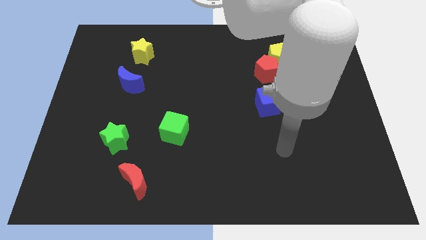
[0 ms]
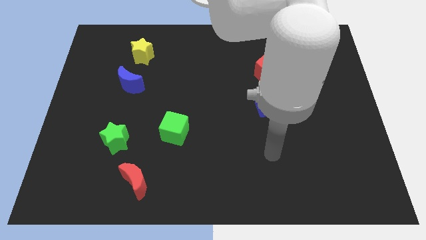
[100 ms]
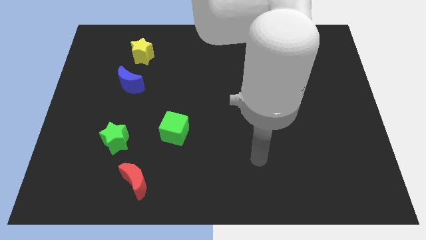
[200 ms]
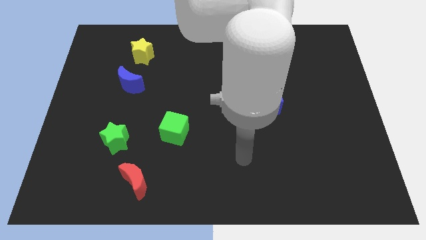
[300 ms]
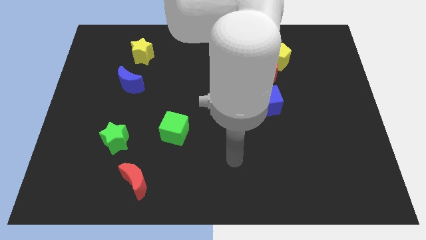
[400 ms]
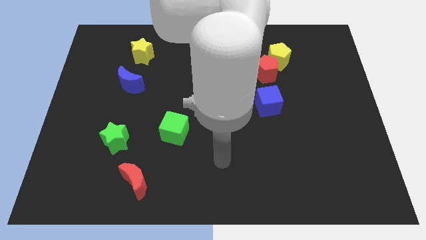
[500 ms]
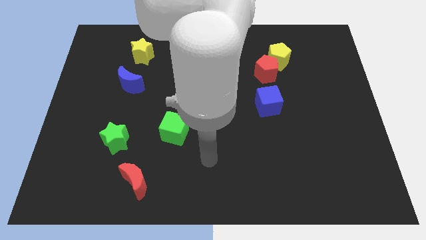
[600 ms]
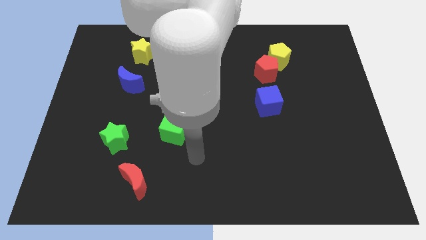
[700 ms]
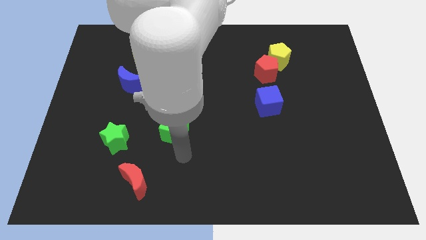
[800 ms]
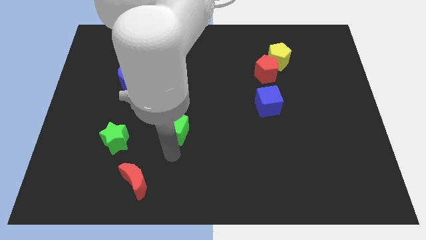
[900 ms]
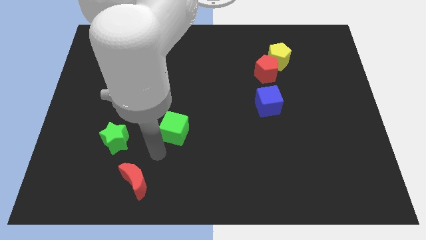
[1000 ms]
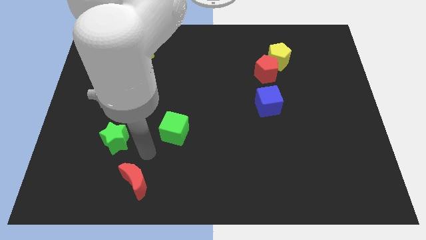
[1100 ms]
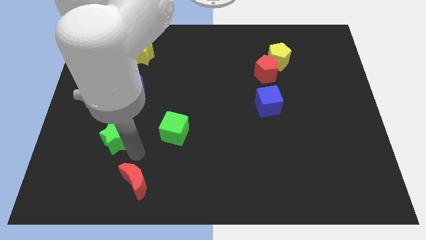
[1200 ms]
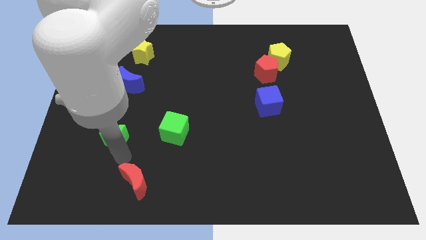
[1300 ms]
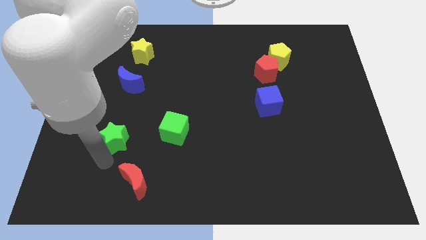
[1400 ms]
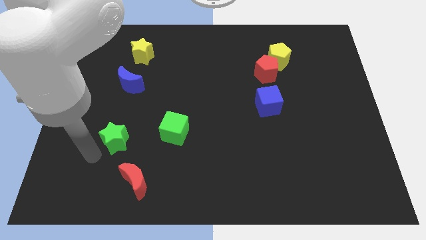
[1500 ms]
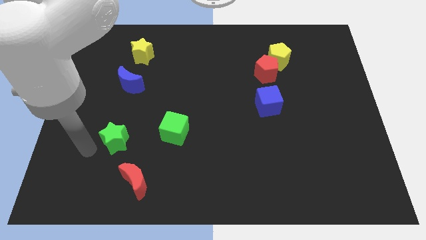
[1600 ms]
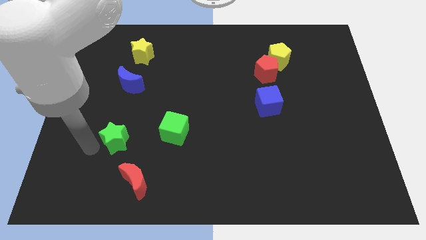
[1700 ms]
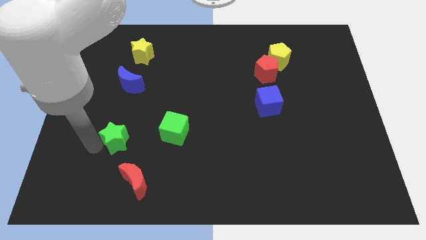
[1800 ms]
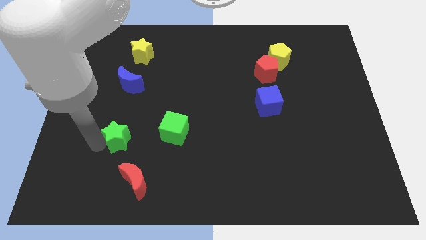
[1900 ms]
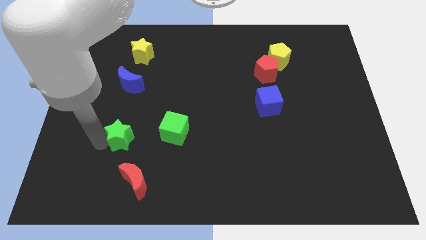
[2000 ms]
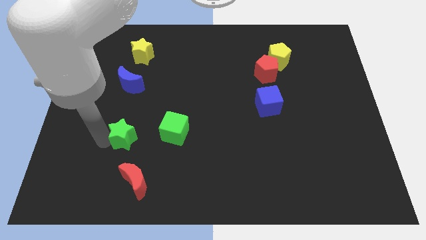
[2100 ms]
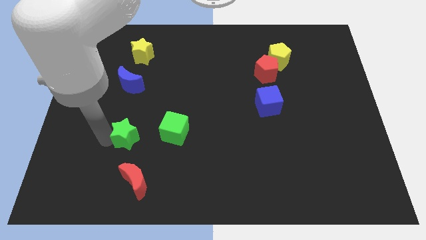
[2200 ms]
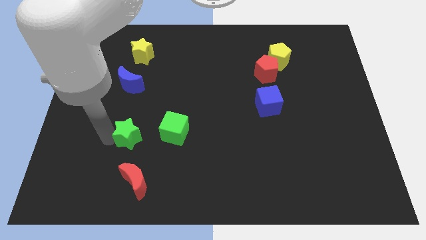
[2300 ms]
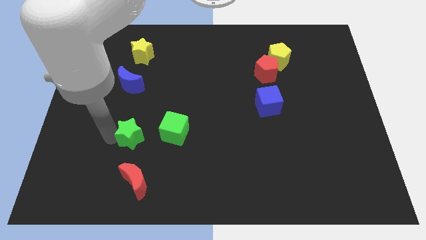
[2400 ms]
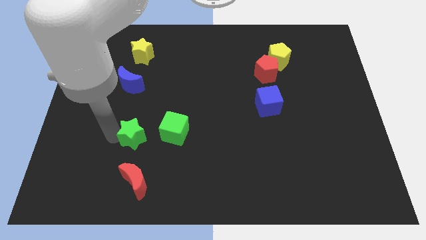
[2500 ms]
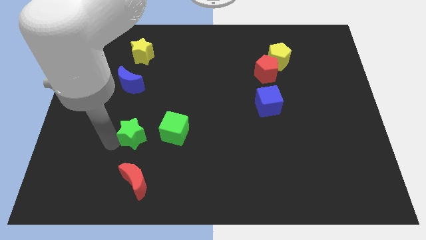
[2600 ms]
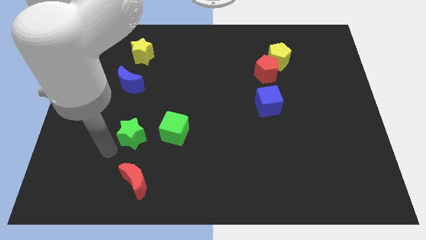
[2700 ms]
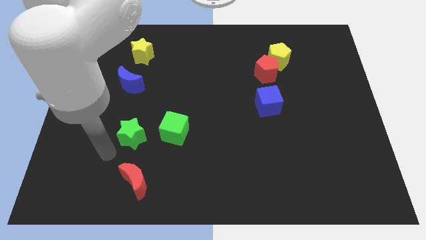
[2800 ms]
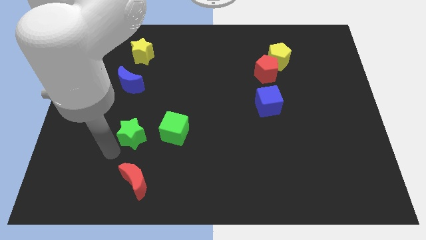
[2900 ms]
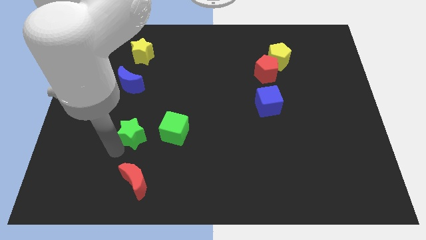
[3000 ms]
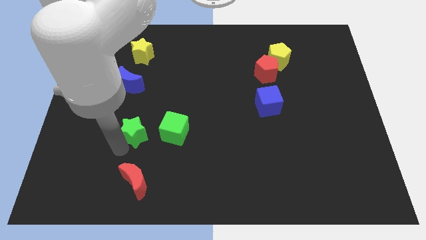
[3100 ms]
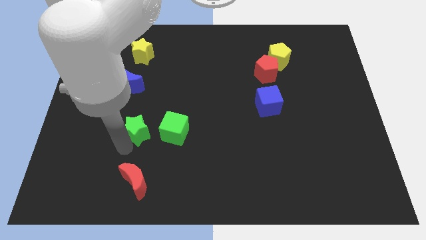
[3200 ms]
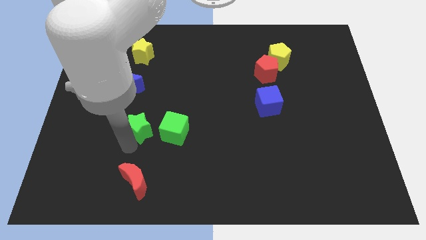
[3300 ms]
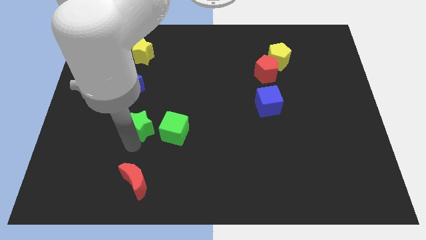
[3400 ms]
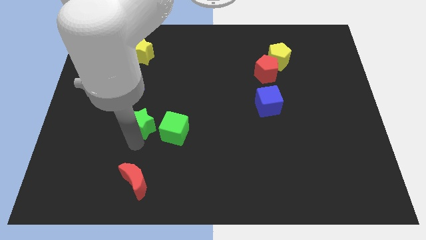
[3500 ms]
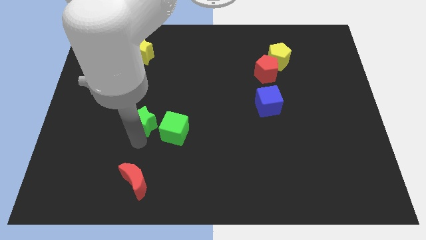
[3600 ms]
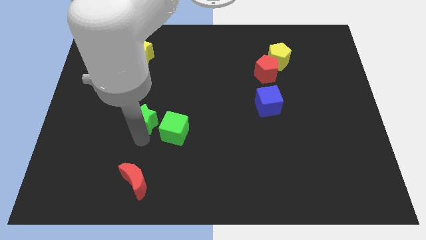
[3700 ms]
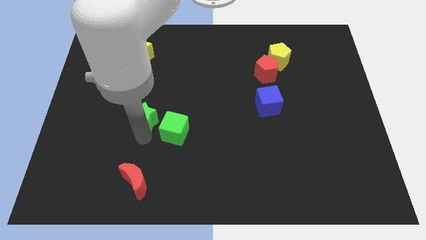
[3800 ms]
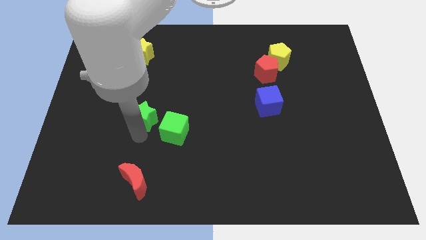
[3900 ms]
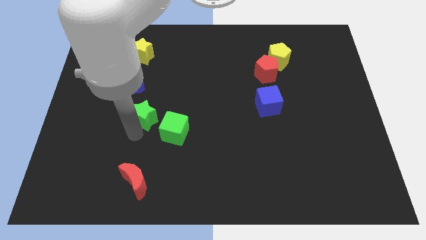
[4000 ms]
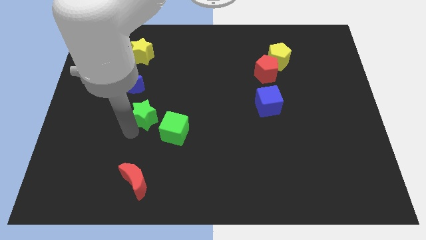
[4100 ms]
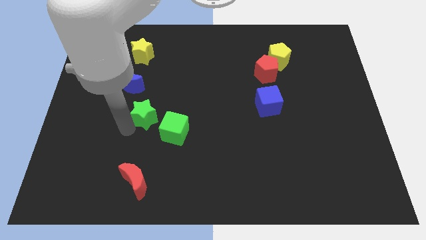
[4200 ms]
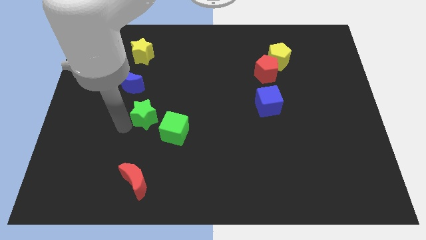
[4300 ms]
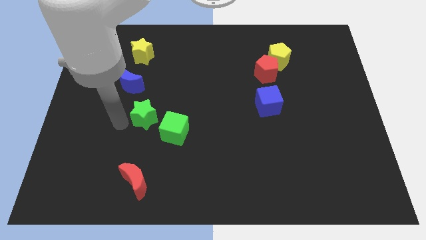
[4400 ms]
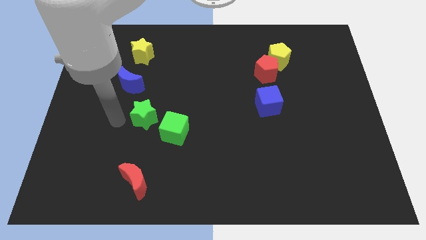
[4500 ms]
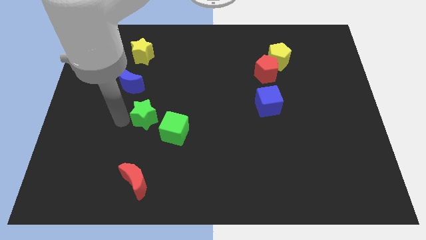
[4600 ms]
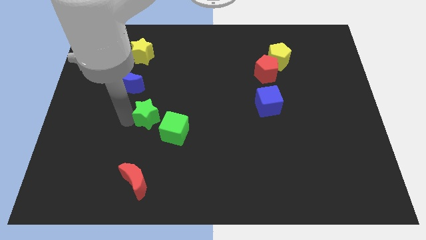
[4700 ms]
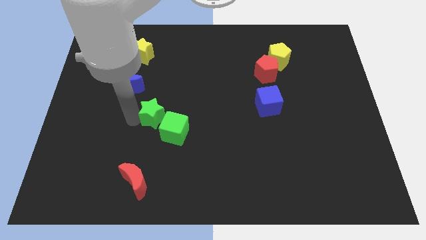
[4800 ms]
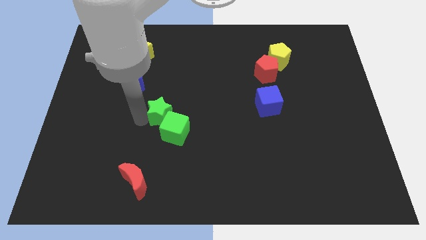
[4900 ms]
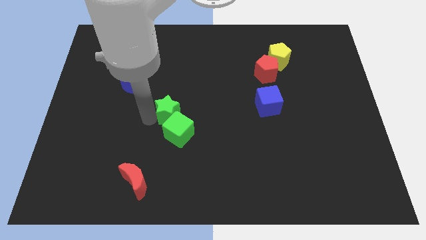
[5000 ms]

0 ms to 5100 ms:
slide the green star to the middle
